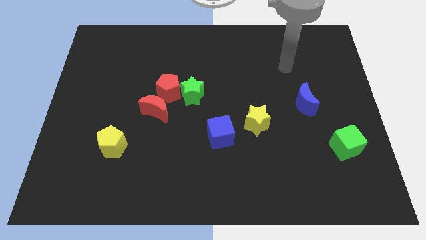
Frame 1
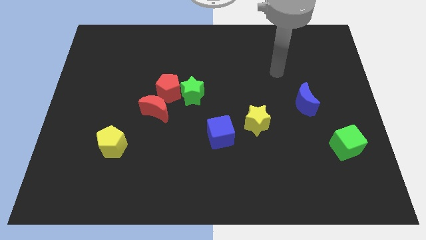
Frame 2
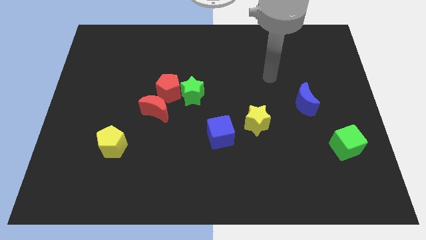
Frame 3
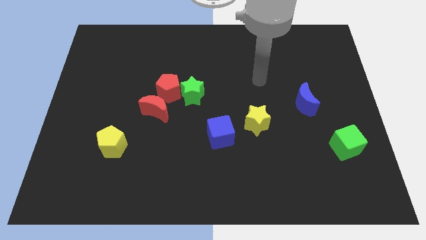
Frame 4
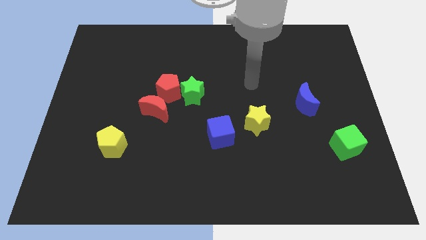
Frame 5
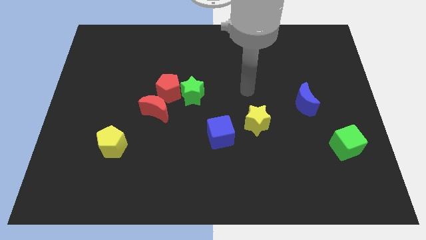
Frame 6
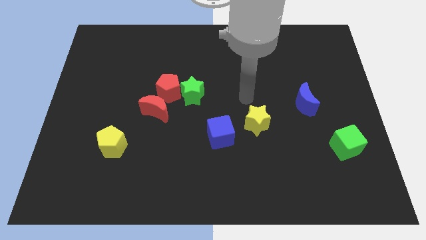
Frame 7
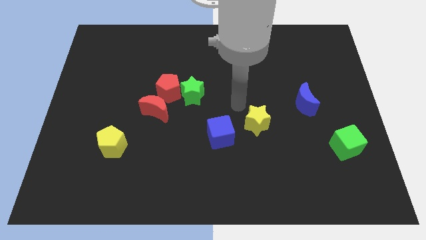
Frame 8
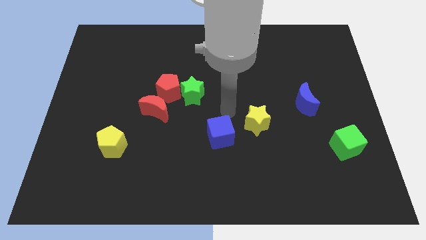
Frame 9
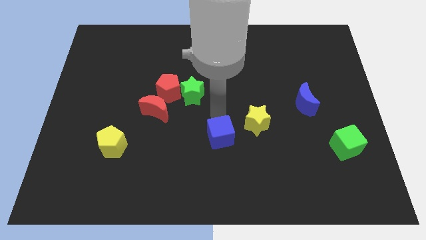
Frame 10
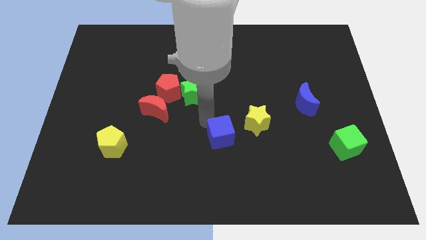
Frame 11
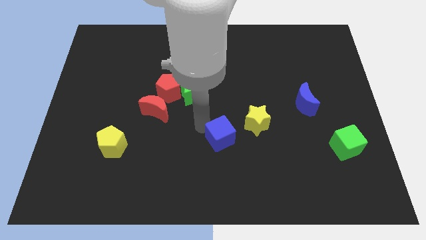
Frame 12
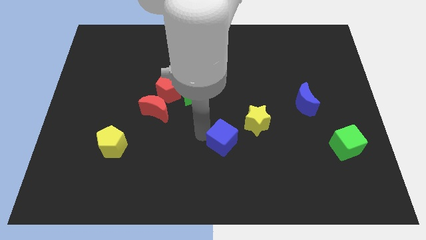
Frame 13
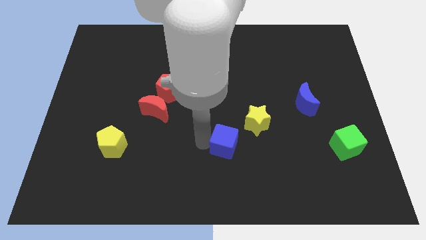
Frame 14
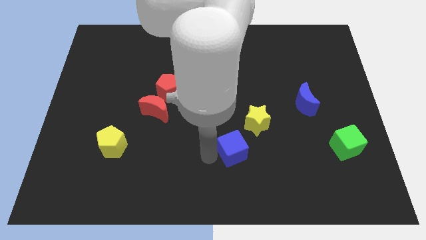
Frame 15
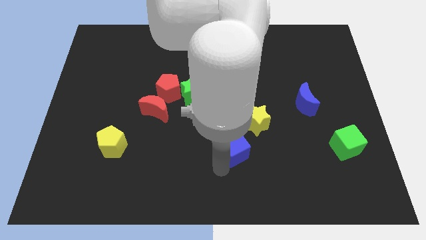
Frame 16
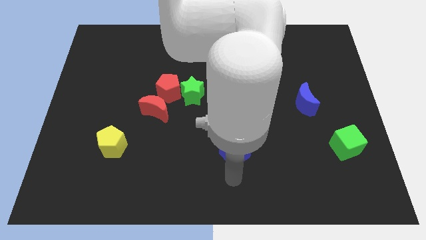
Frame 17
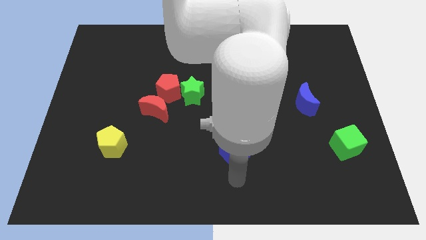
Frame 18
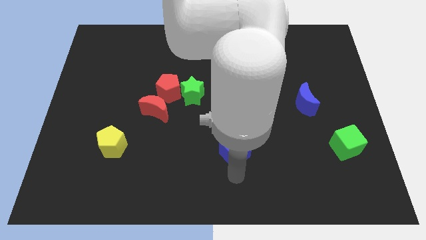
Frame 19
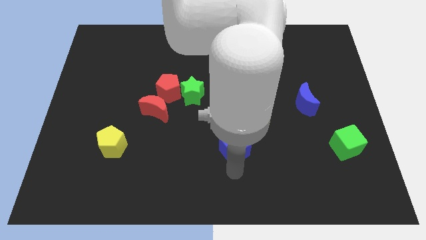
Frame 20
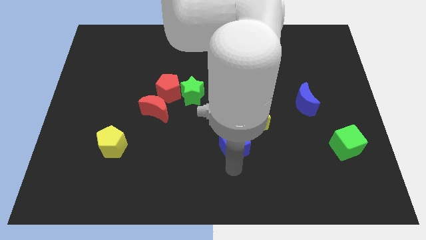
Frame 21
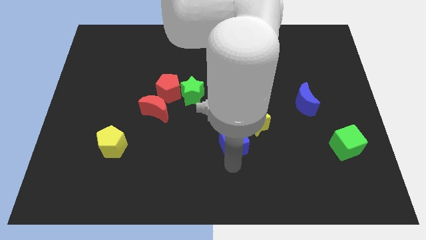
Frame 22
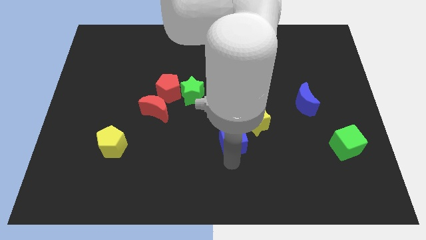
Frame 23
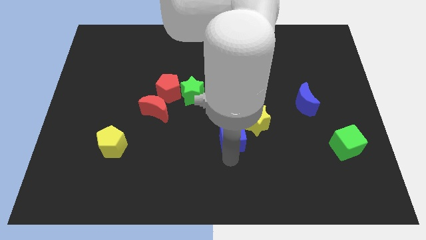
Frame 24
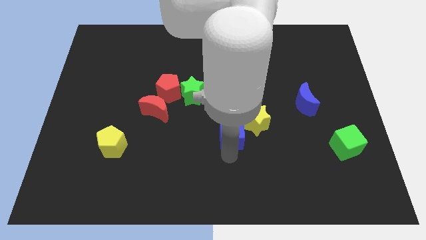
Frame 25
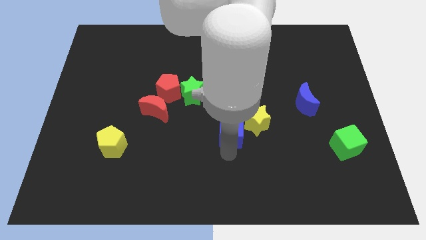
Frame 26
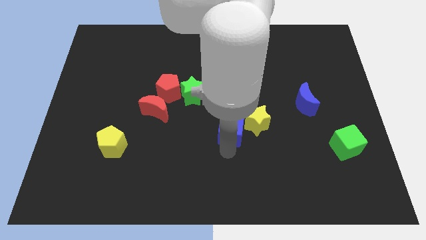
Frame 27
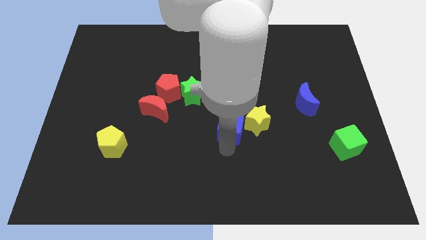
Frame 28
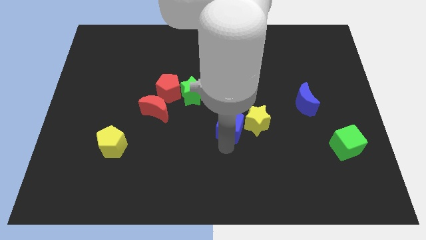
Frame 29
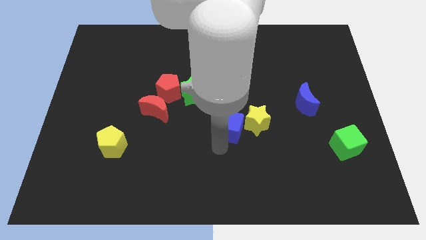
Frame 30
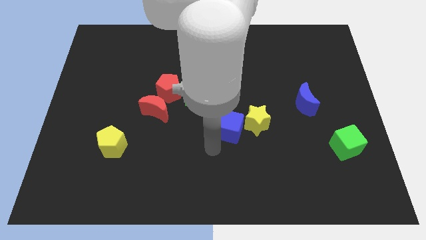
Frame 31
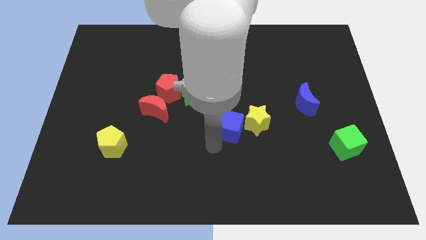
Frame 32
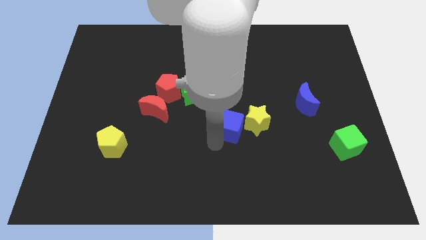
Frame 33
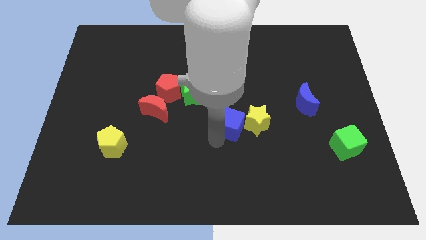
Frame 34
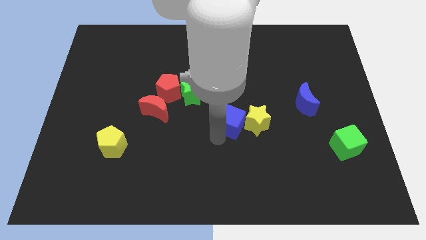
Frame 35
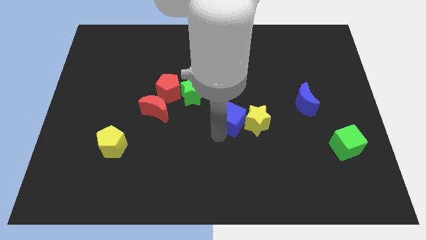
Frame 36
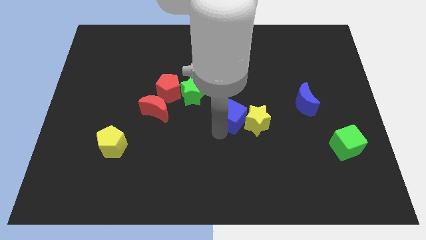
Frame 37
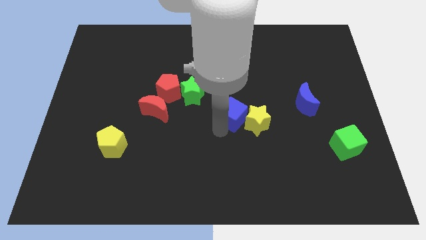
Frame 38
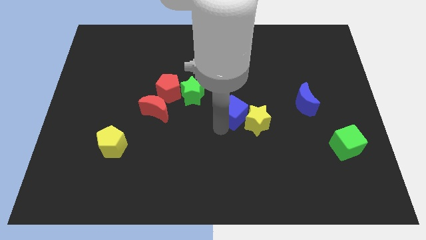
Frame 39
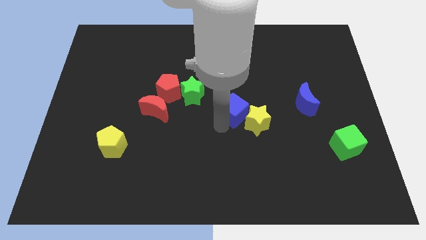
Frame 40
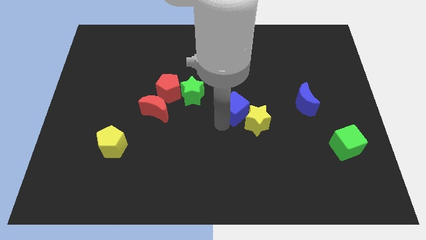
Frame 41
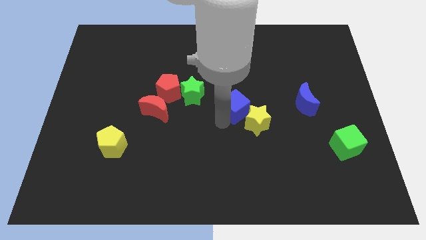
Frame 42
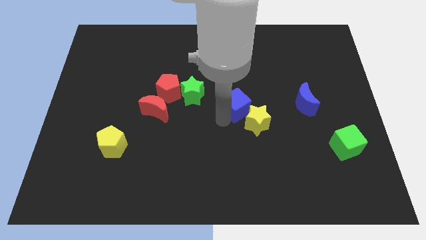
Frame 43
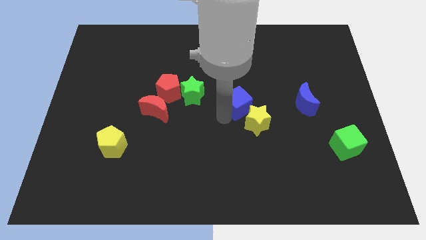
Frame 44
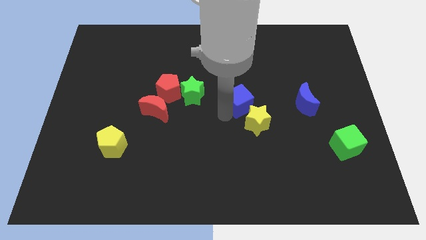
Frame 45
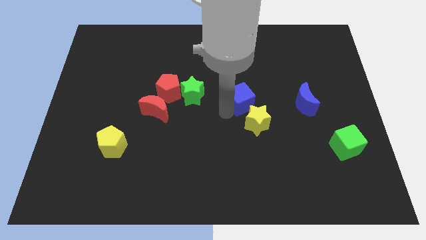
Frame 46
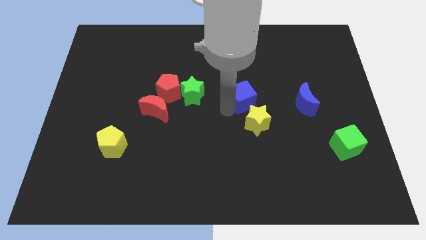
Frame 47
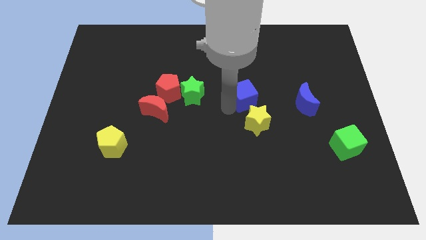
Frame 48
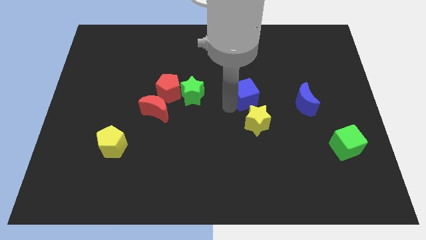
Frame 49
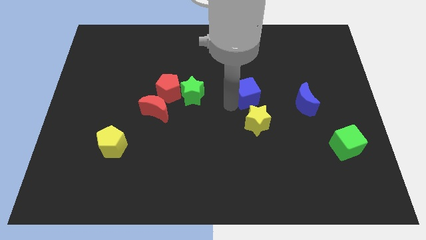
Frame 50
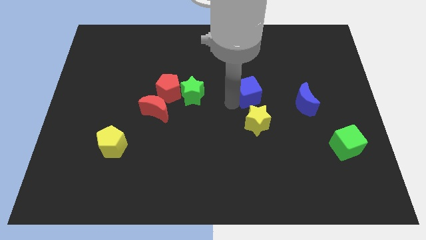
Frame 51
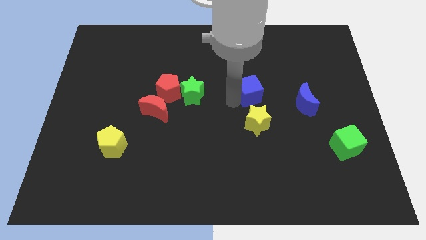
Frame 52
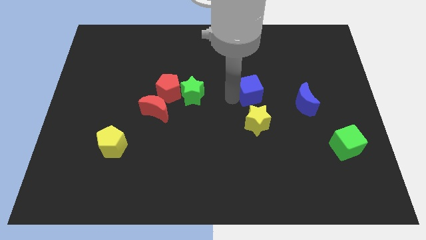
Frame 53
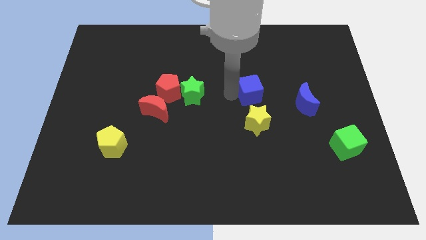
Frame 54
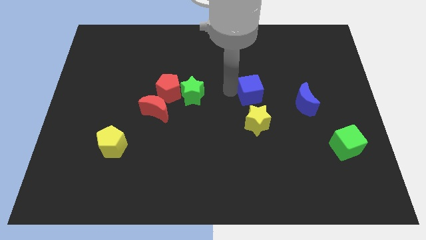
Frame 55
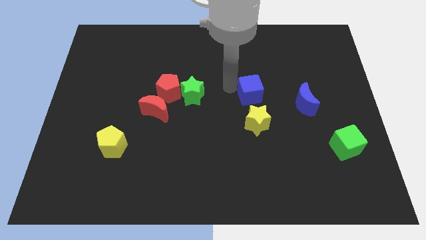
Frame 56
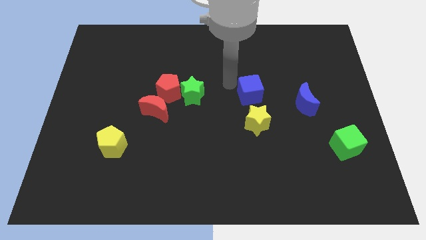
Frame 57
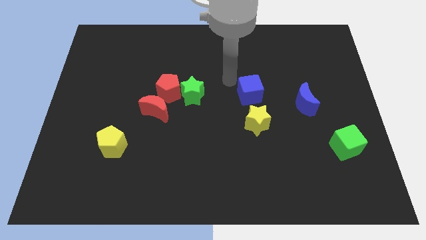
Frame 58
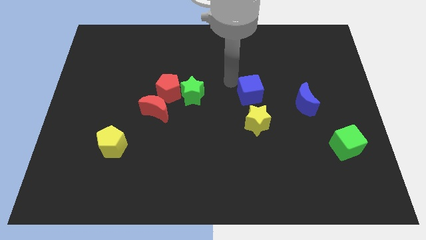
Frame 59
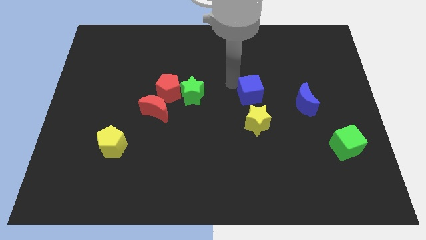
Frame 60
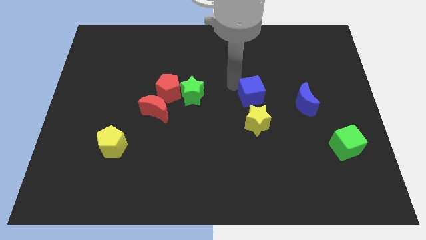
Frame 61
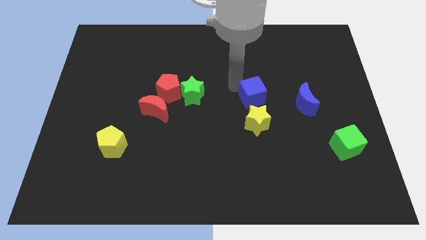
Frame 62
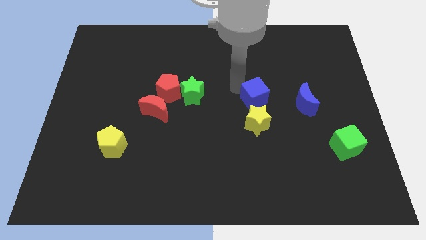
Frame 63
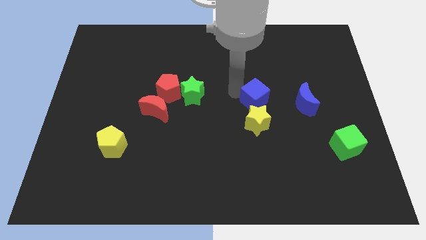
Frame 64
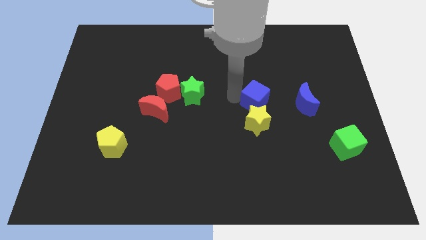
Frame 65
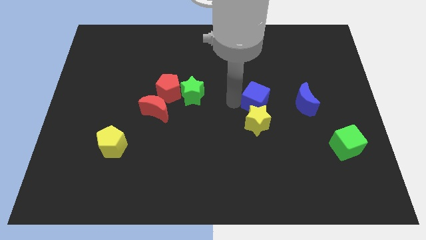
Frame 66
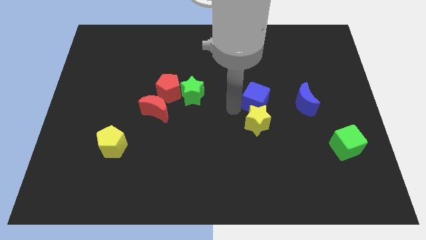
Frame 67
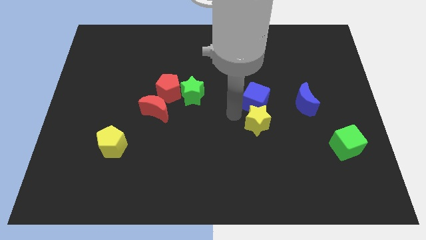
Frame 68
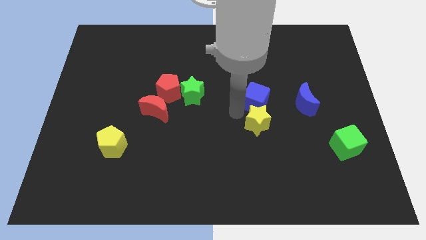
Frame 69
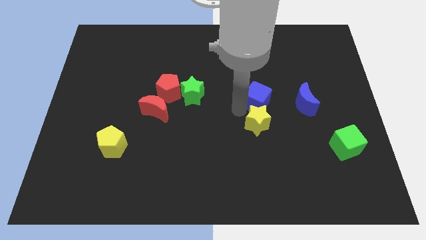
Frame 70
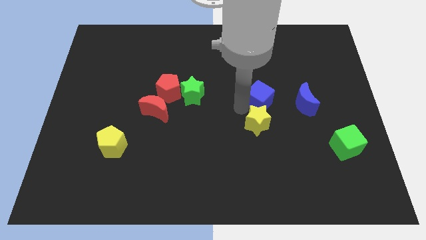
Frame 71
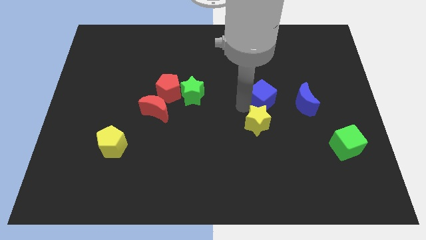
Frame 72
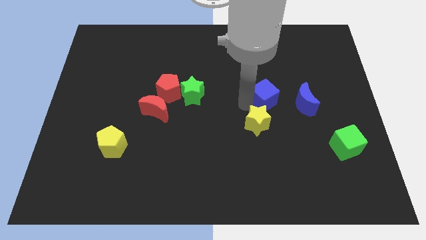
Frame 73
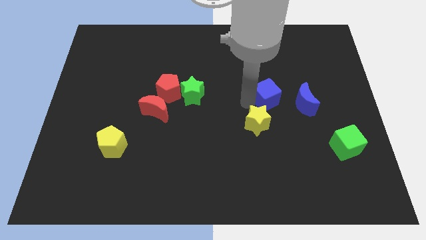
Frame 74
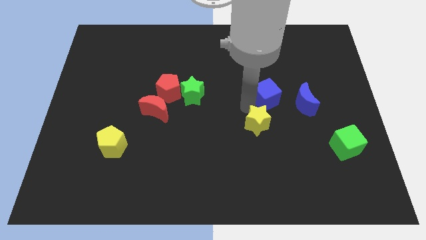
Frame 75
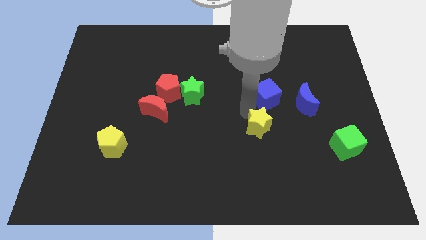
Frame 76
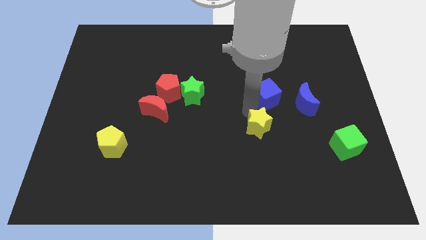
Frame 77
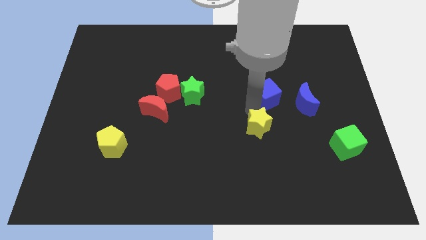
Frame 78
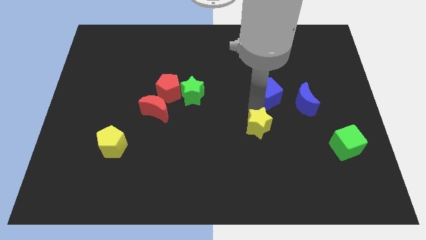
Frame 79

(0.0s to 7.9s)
push the blue cube diagonally up and to the left of the blue moon
